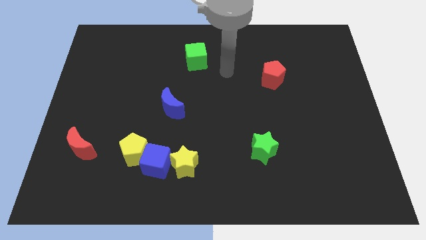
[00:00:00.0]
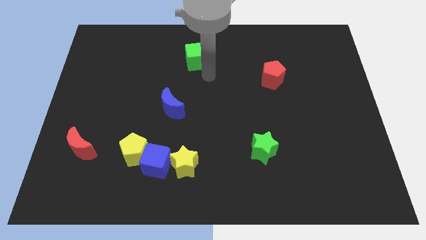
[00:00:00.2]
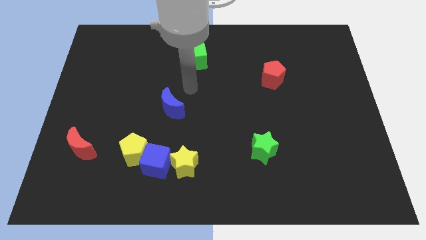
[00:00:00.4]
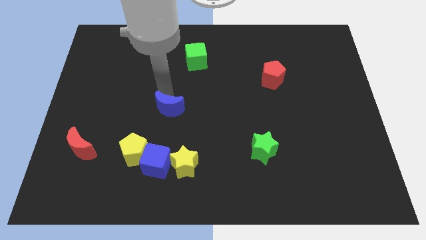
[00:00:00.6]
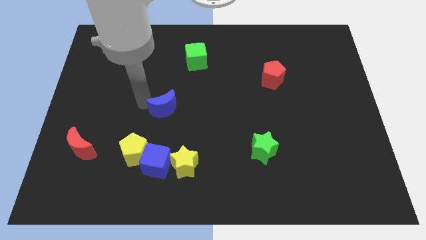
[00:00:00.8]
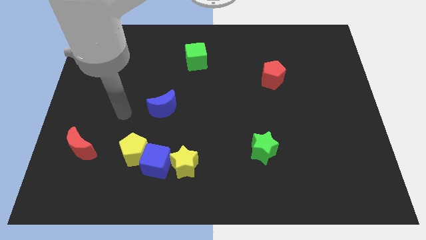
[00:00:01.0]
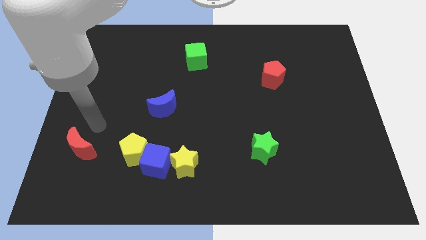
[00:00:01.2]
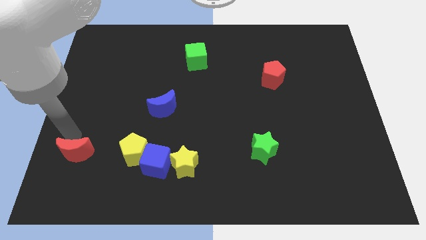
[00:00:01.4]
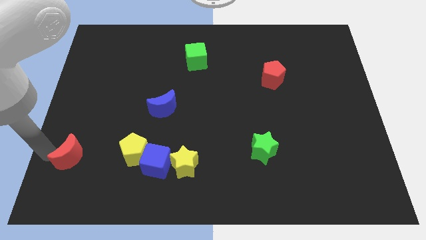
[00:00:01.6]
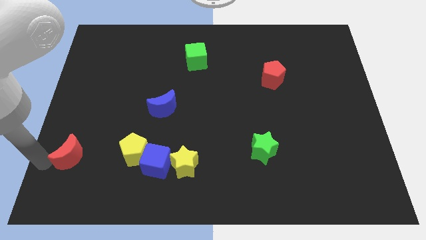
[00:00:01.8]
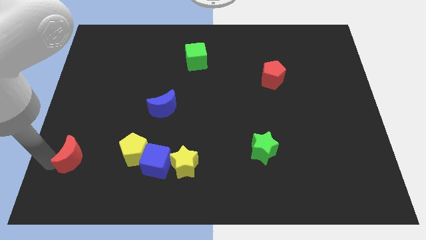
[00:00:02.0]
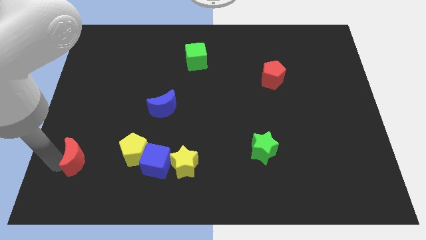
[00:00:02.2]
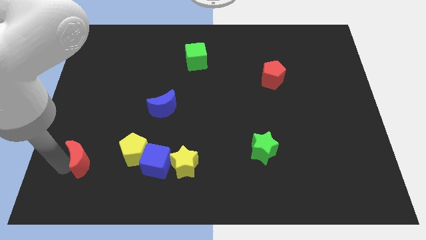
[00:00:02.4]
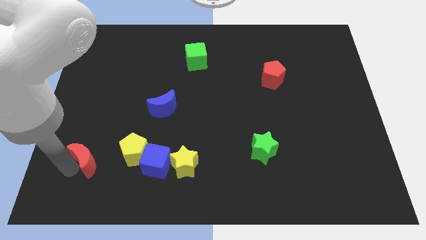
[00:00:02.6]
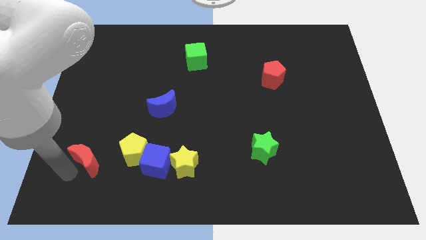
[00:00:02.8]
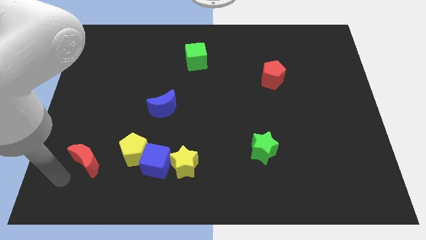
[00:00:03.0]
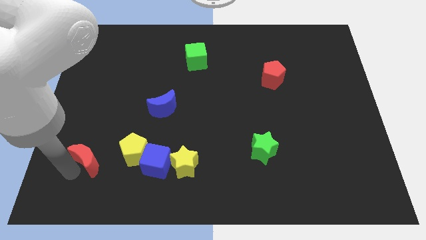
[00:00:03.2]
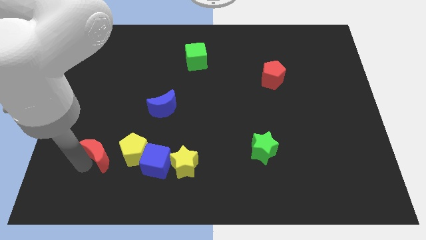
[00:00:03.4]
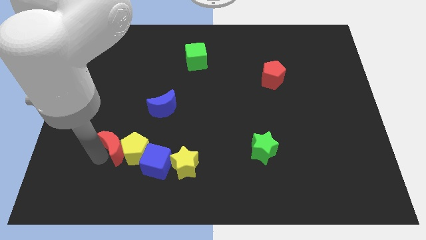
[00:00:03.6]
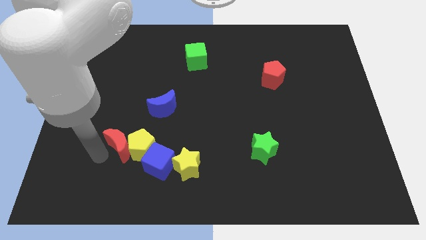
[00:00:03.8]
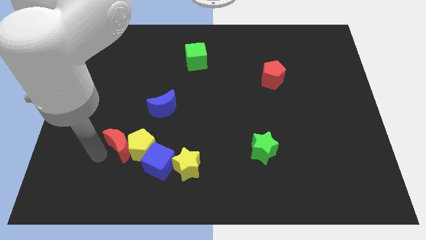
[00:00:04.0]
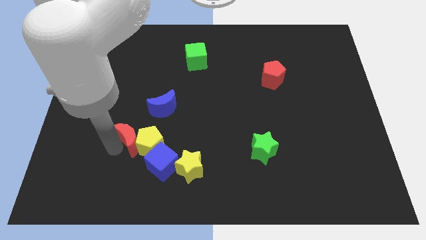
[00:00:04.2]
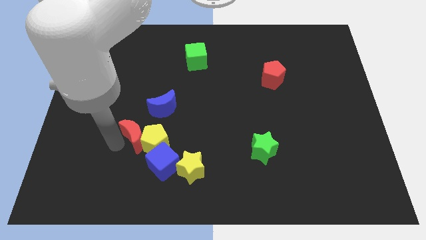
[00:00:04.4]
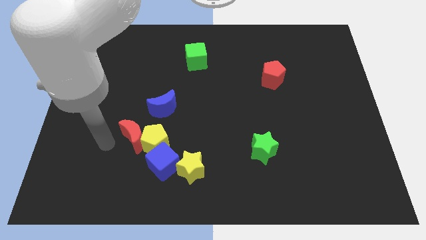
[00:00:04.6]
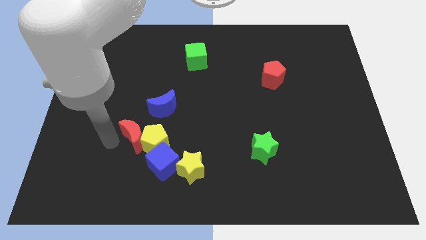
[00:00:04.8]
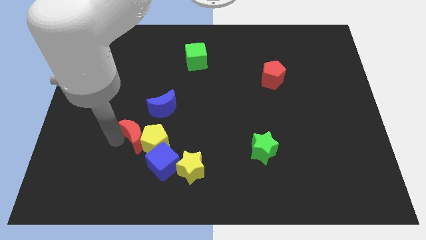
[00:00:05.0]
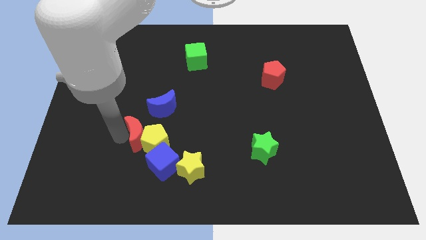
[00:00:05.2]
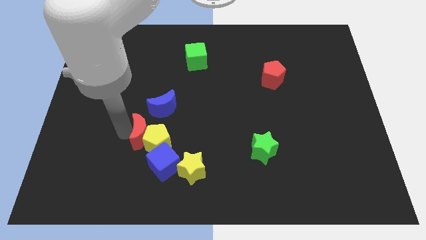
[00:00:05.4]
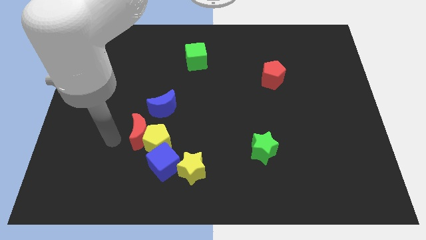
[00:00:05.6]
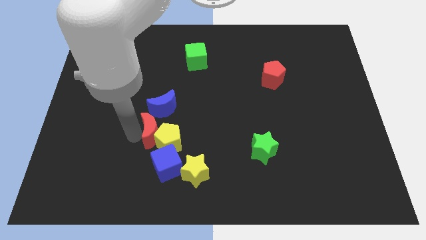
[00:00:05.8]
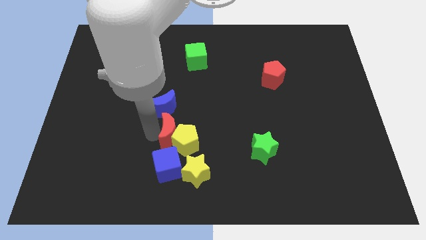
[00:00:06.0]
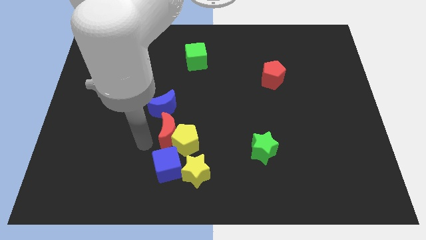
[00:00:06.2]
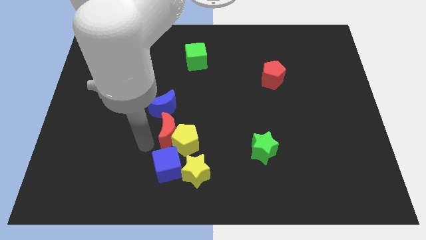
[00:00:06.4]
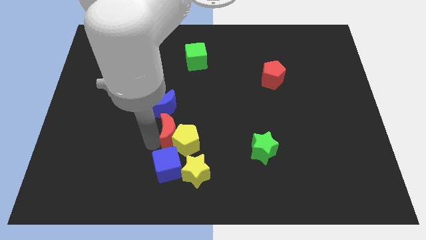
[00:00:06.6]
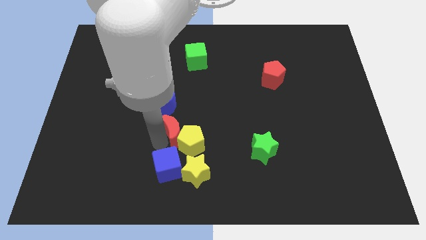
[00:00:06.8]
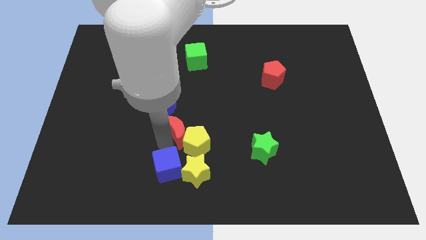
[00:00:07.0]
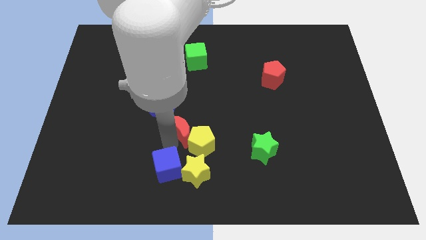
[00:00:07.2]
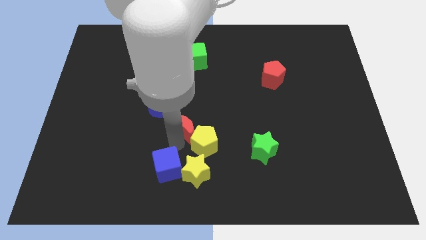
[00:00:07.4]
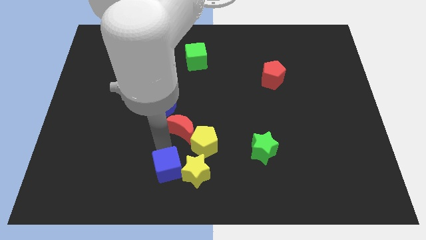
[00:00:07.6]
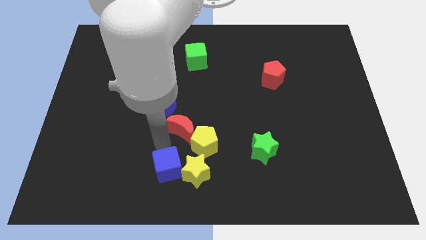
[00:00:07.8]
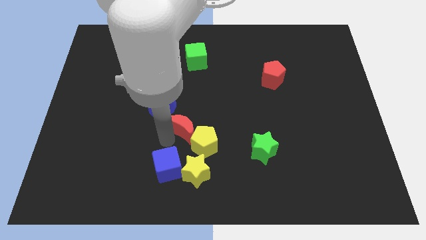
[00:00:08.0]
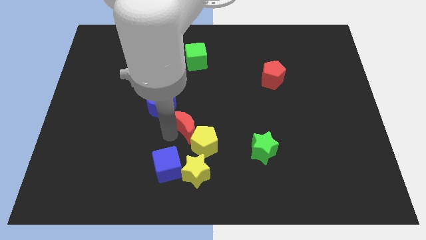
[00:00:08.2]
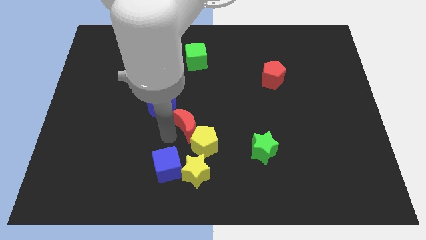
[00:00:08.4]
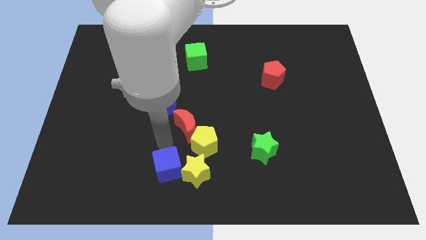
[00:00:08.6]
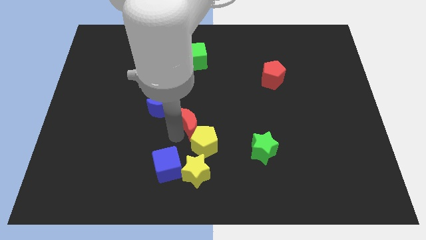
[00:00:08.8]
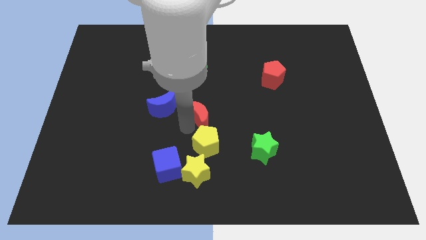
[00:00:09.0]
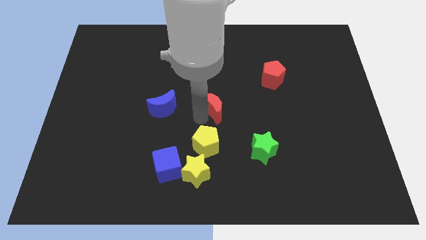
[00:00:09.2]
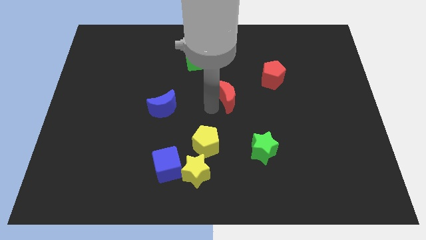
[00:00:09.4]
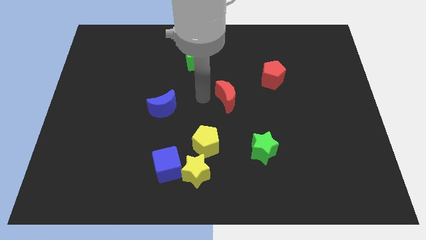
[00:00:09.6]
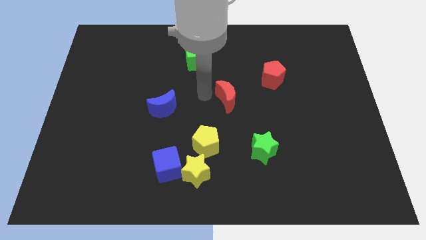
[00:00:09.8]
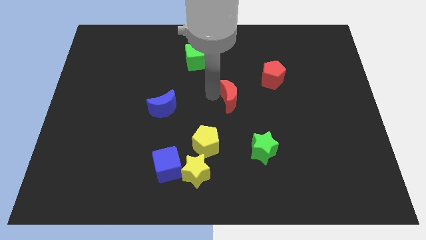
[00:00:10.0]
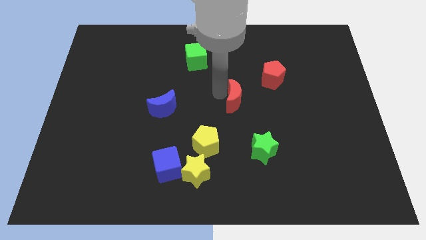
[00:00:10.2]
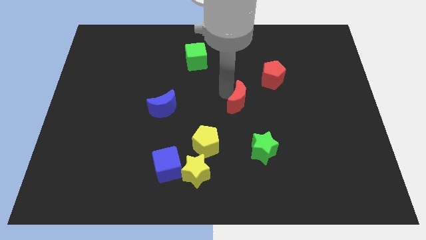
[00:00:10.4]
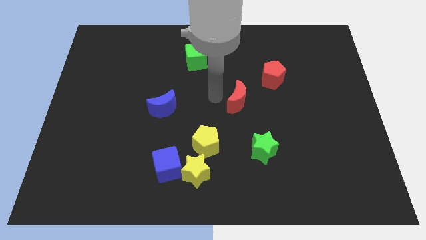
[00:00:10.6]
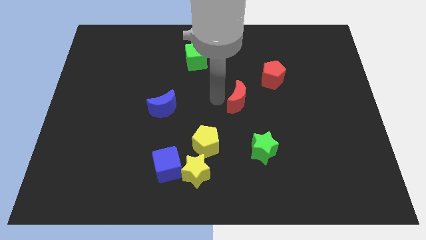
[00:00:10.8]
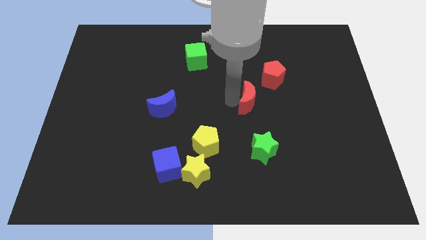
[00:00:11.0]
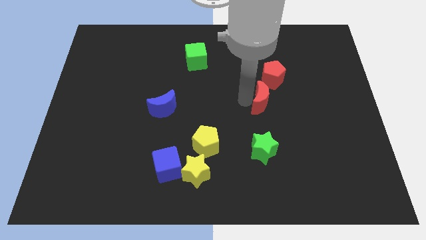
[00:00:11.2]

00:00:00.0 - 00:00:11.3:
push the red moon to the bottom side of the red pentagon

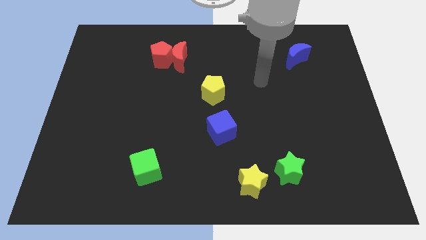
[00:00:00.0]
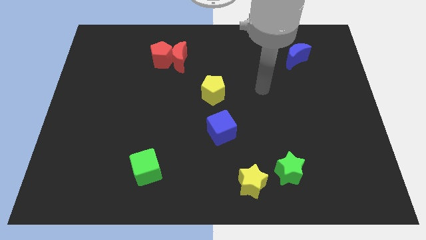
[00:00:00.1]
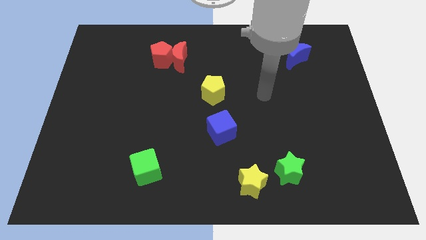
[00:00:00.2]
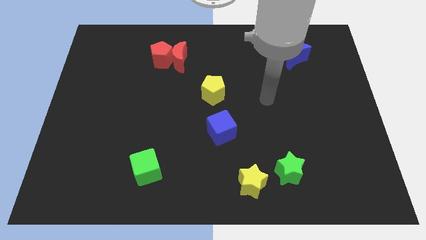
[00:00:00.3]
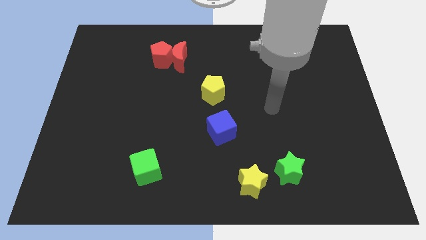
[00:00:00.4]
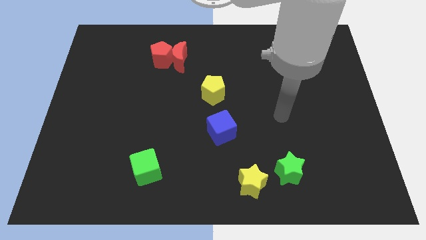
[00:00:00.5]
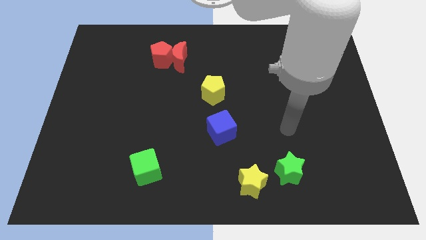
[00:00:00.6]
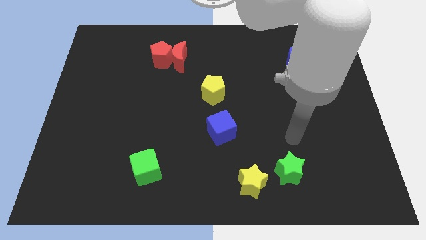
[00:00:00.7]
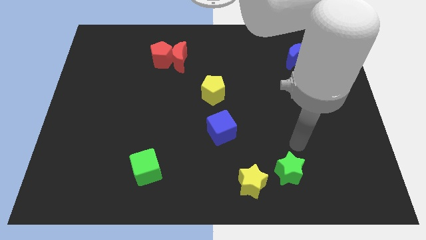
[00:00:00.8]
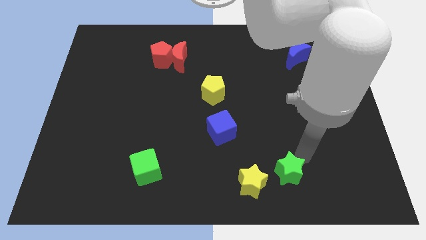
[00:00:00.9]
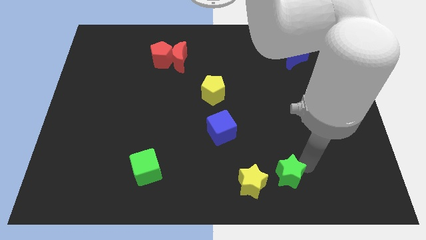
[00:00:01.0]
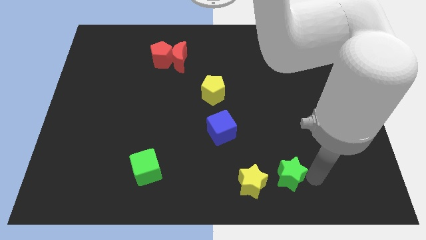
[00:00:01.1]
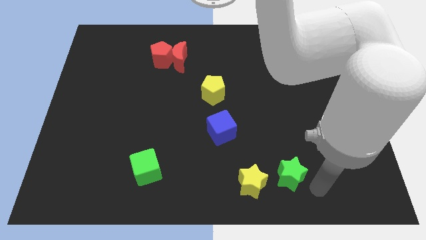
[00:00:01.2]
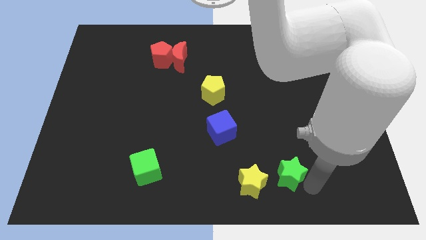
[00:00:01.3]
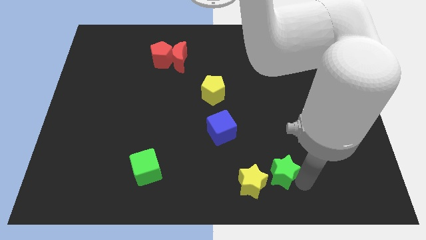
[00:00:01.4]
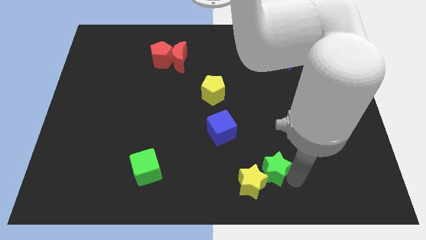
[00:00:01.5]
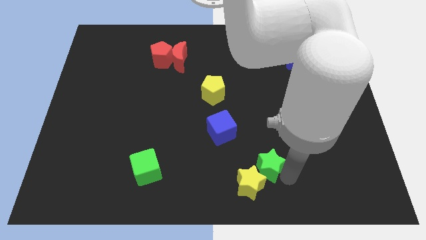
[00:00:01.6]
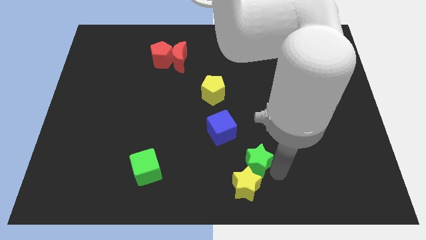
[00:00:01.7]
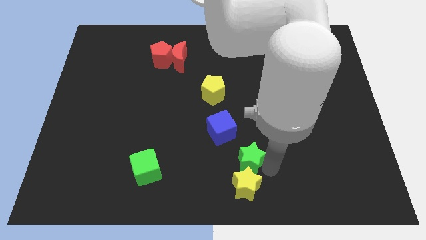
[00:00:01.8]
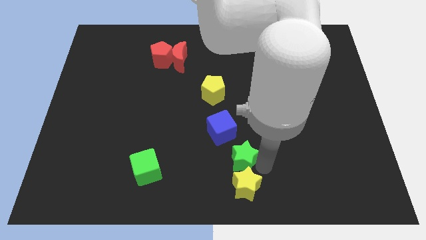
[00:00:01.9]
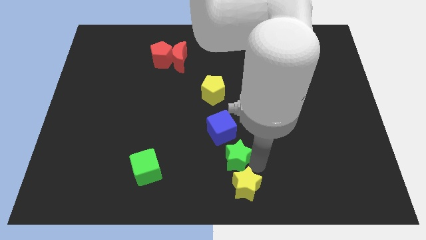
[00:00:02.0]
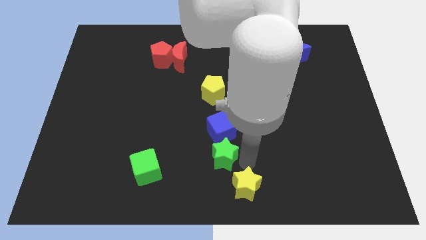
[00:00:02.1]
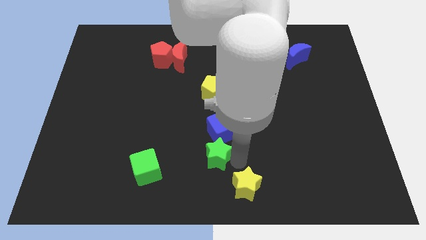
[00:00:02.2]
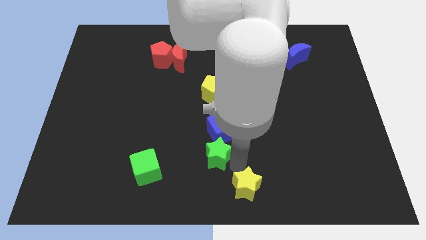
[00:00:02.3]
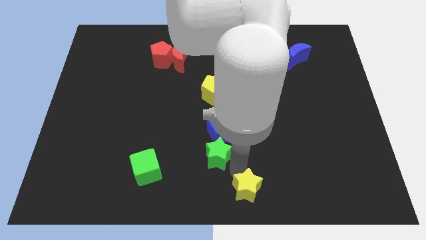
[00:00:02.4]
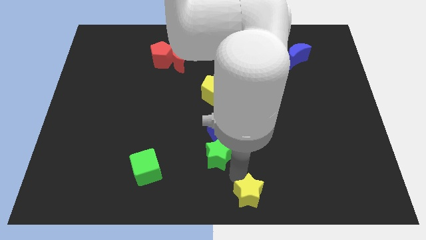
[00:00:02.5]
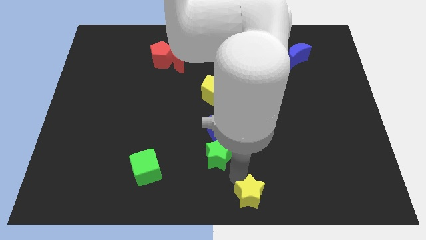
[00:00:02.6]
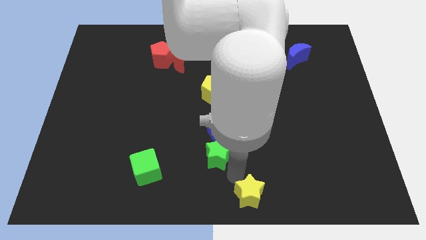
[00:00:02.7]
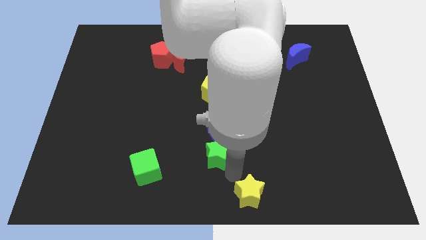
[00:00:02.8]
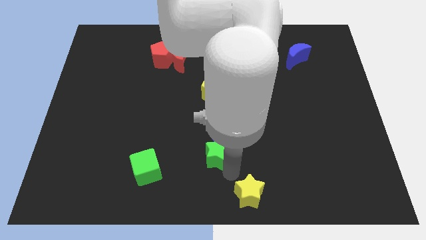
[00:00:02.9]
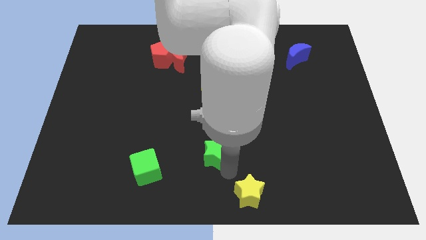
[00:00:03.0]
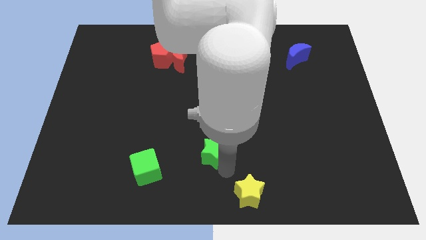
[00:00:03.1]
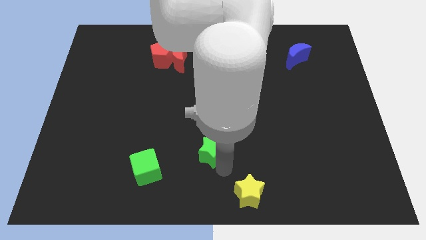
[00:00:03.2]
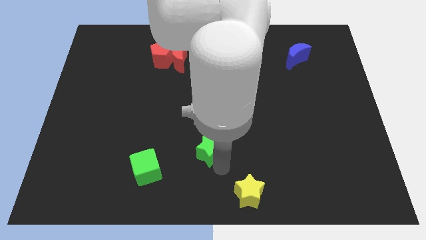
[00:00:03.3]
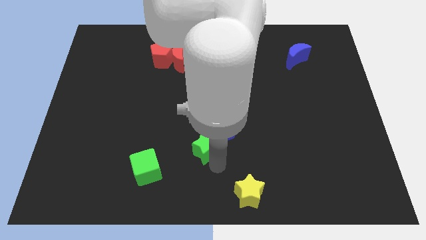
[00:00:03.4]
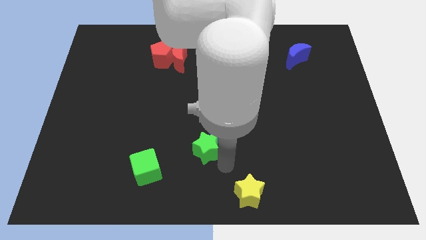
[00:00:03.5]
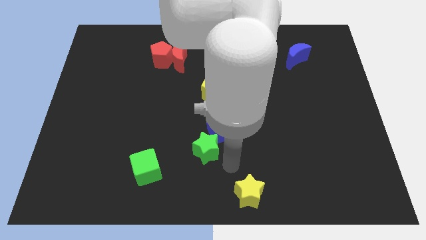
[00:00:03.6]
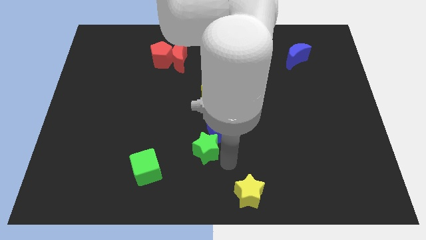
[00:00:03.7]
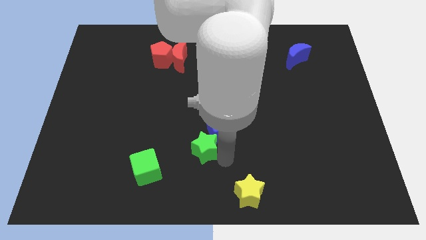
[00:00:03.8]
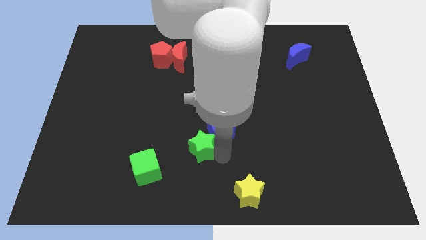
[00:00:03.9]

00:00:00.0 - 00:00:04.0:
move the green star left of the blue cube
